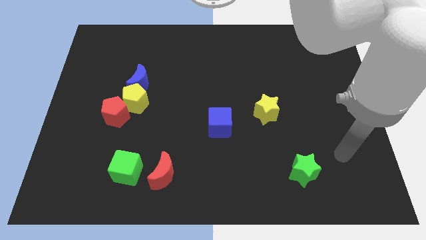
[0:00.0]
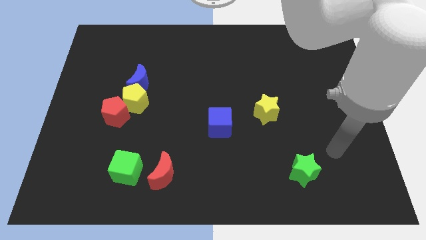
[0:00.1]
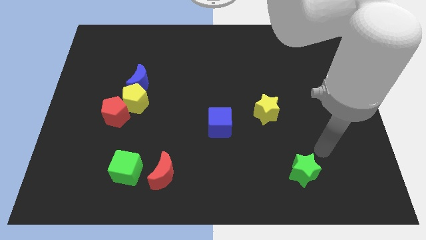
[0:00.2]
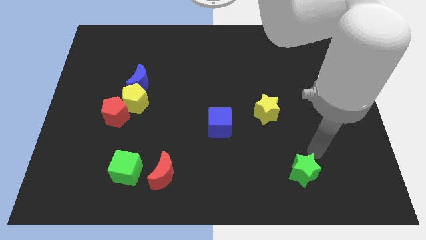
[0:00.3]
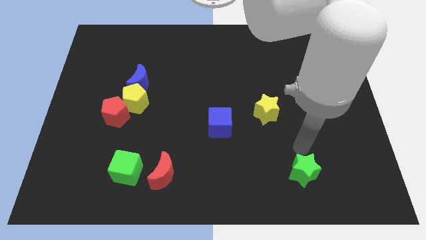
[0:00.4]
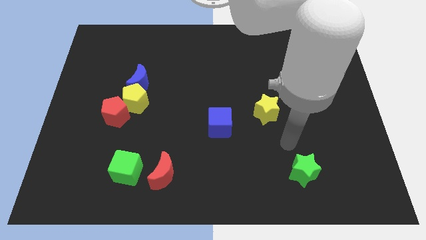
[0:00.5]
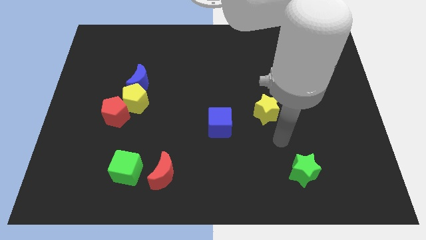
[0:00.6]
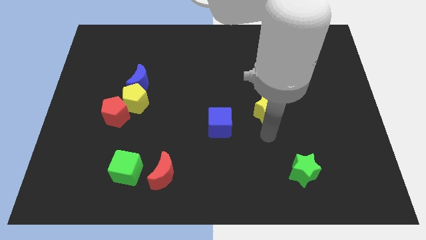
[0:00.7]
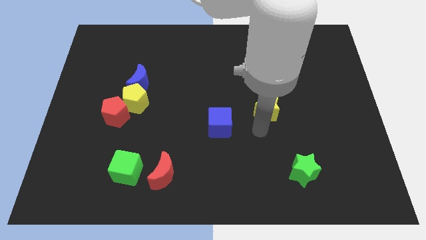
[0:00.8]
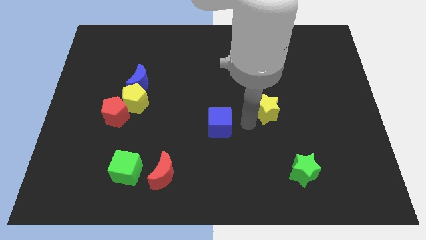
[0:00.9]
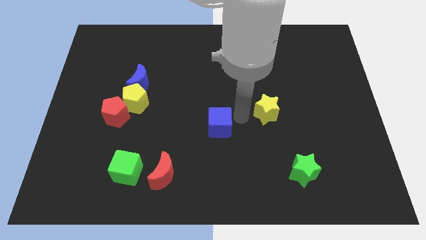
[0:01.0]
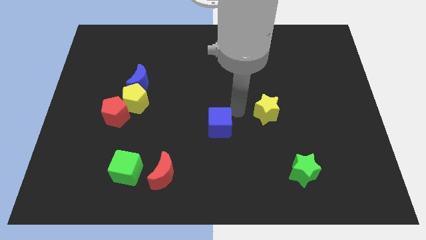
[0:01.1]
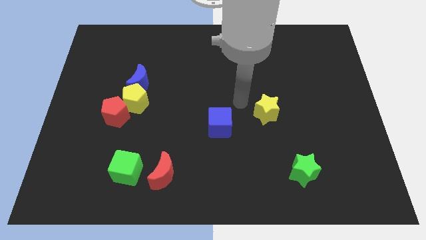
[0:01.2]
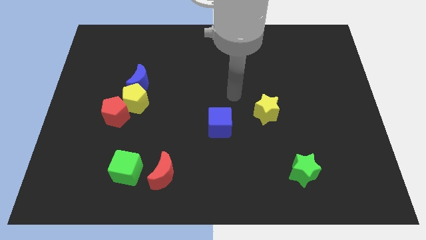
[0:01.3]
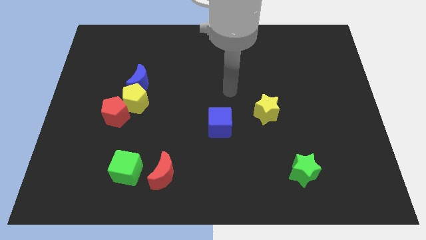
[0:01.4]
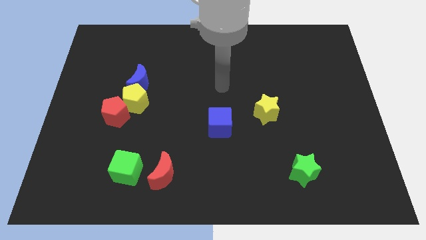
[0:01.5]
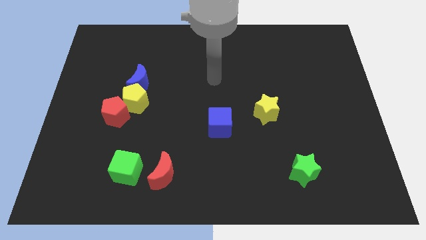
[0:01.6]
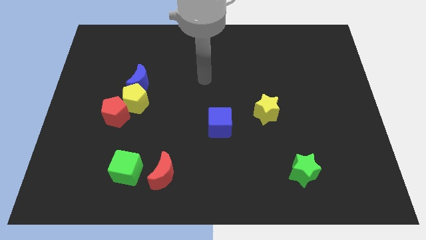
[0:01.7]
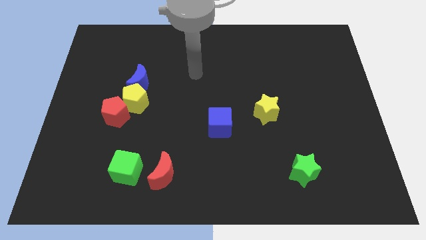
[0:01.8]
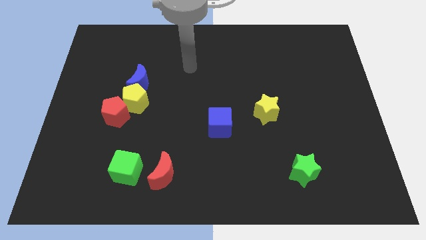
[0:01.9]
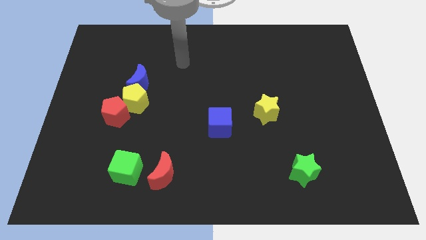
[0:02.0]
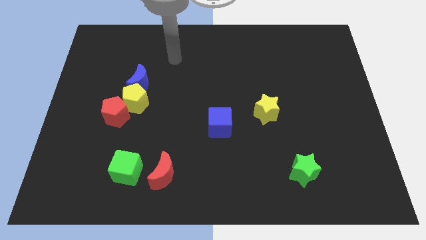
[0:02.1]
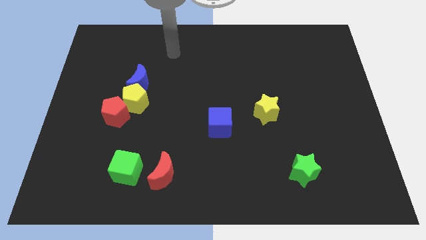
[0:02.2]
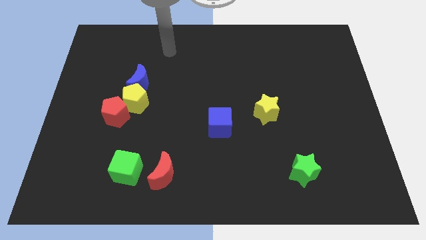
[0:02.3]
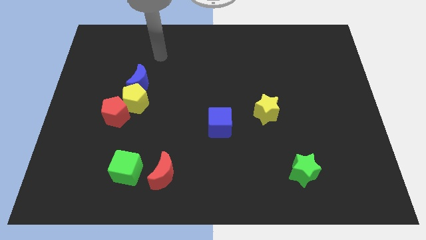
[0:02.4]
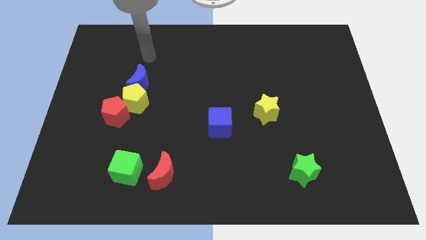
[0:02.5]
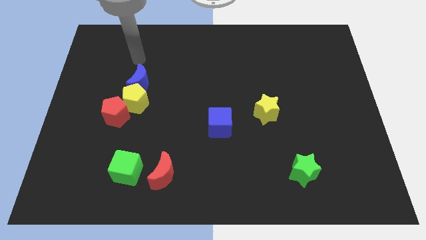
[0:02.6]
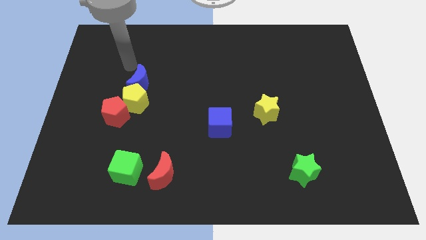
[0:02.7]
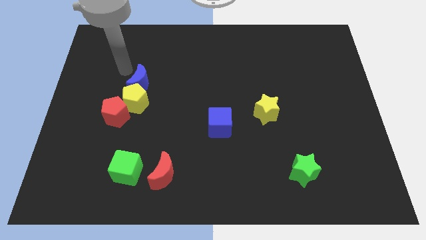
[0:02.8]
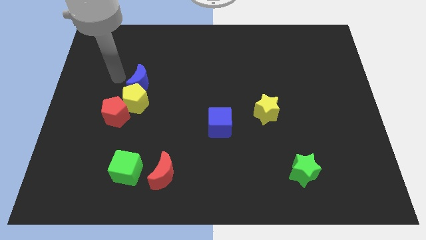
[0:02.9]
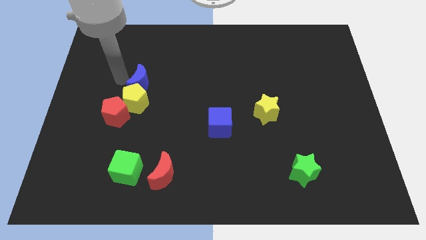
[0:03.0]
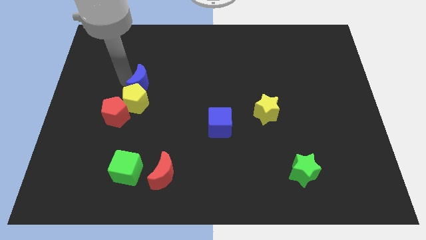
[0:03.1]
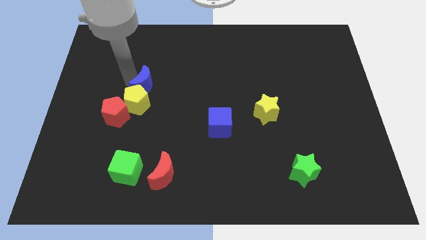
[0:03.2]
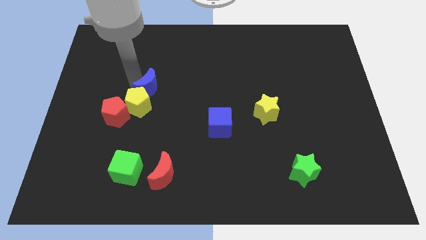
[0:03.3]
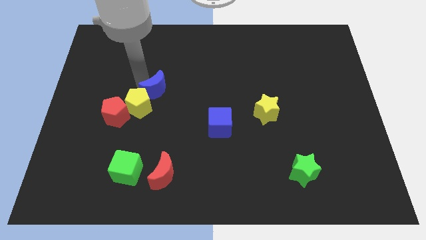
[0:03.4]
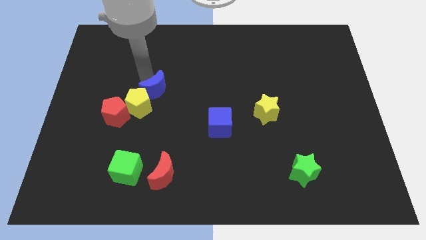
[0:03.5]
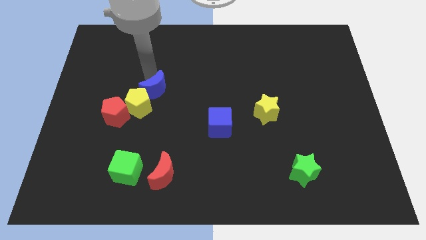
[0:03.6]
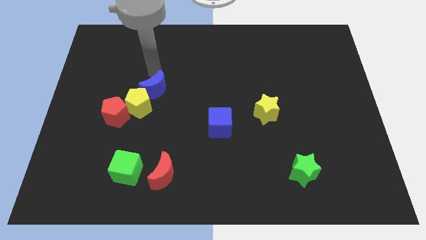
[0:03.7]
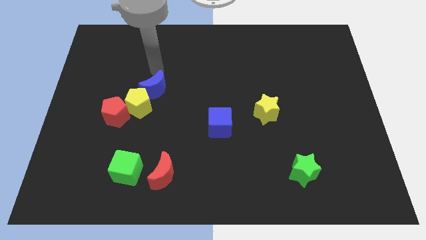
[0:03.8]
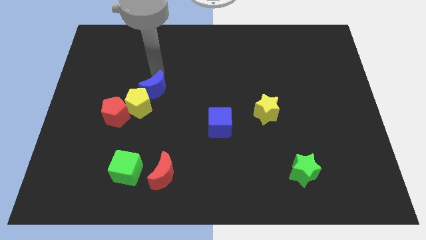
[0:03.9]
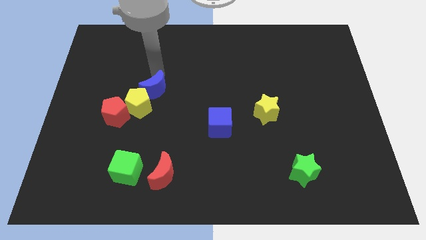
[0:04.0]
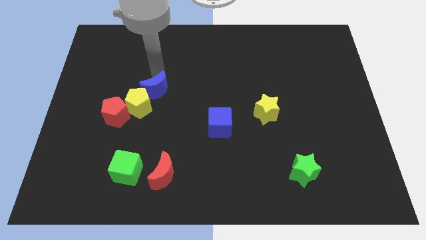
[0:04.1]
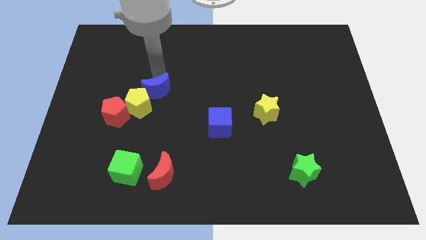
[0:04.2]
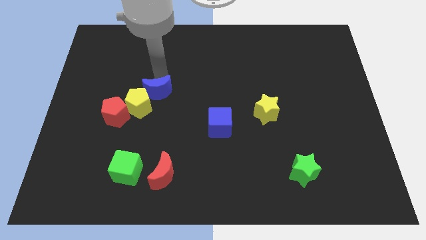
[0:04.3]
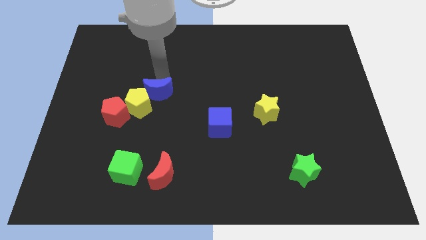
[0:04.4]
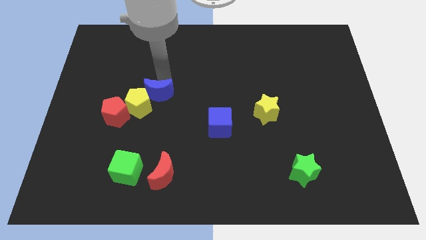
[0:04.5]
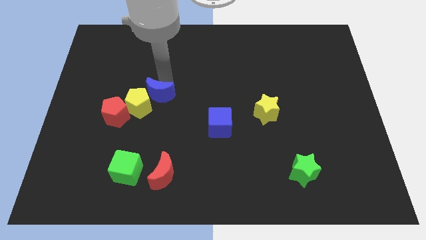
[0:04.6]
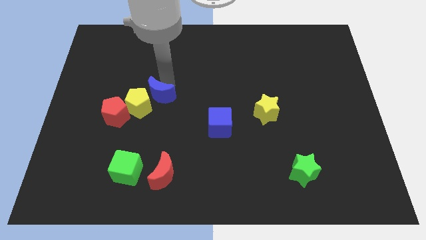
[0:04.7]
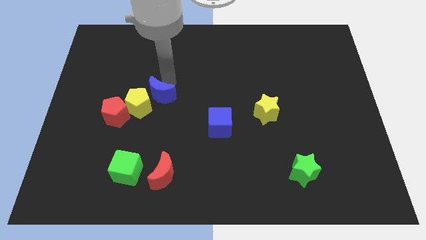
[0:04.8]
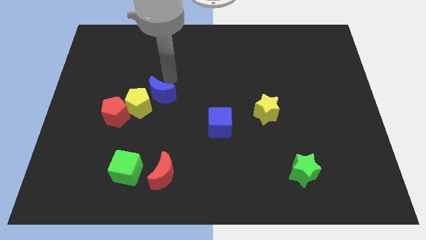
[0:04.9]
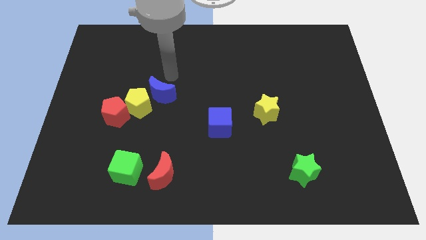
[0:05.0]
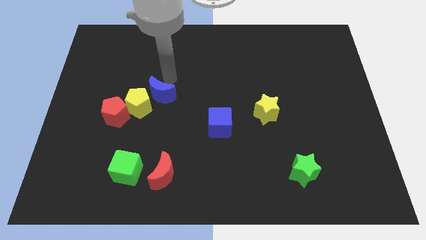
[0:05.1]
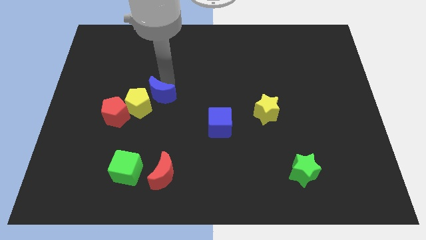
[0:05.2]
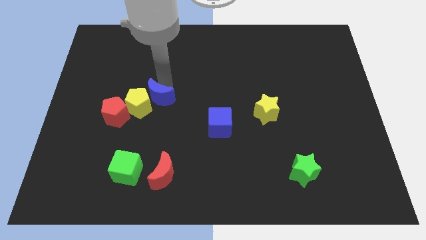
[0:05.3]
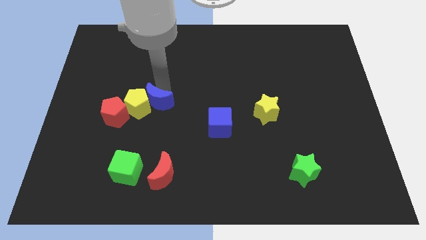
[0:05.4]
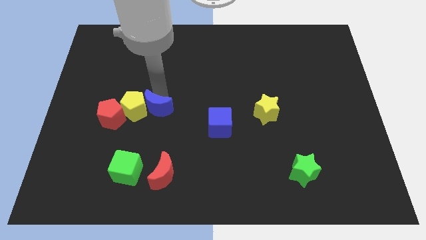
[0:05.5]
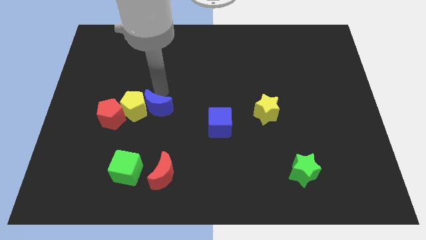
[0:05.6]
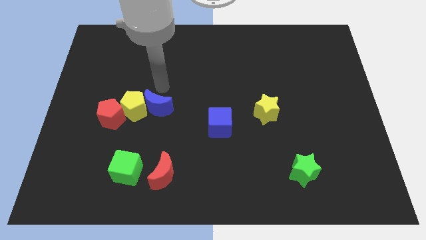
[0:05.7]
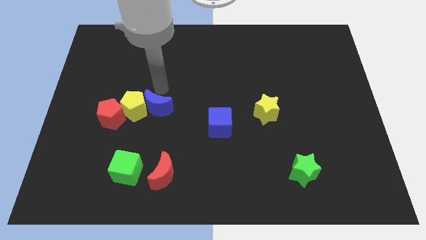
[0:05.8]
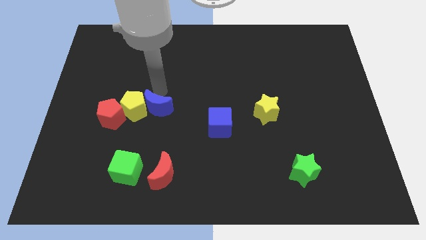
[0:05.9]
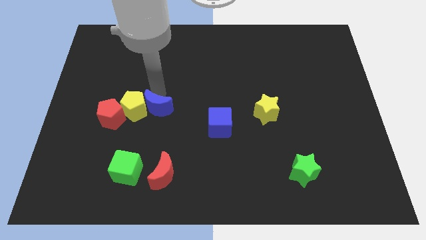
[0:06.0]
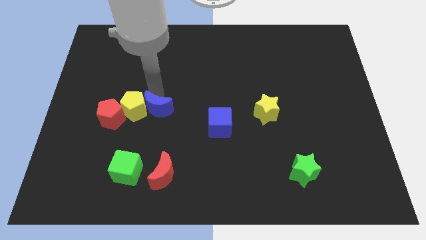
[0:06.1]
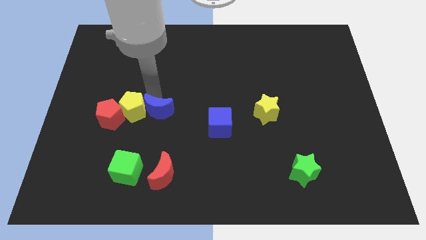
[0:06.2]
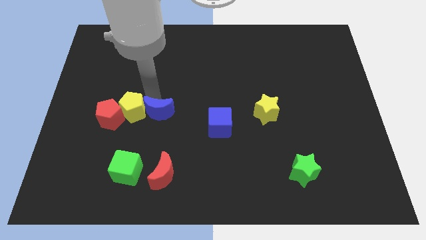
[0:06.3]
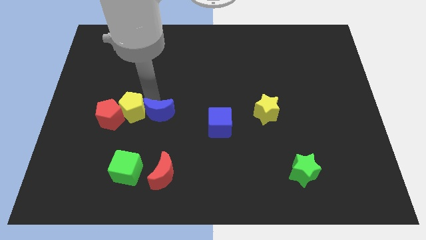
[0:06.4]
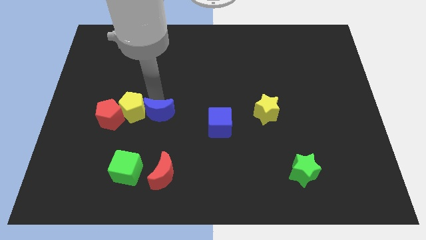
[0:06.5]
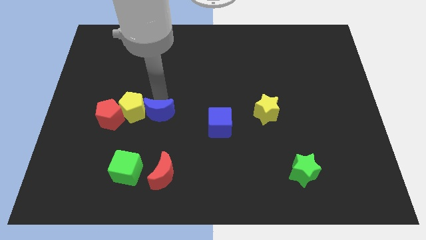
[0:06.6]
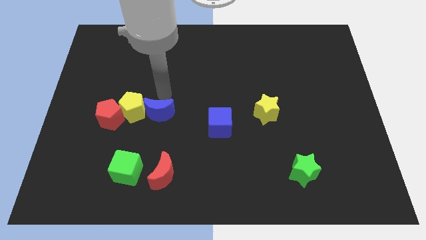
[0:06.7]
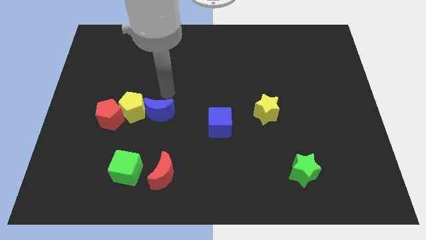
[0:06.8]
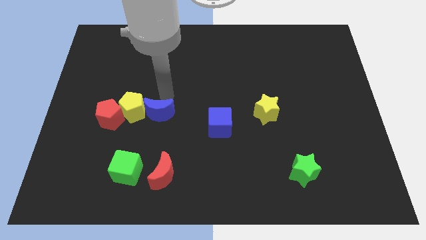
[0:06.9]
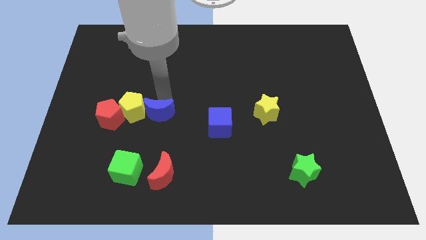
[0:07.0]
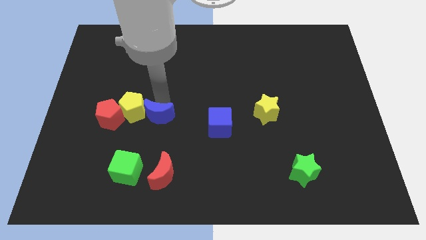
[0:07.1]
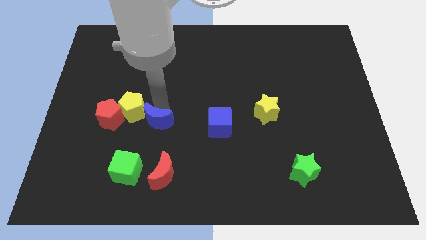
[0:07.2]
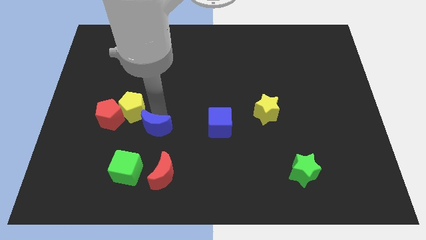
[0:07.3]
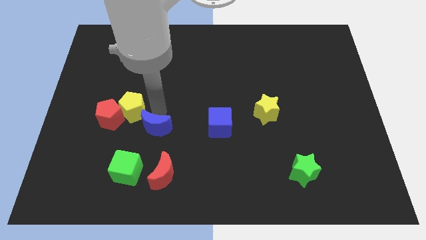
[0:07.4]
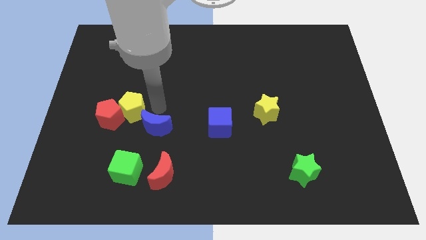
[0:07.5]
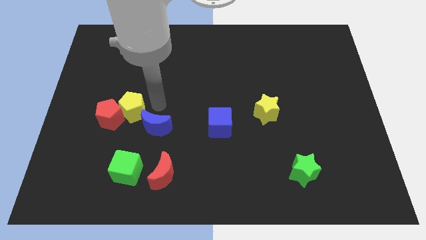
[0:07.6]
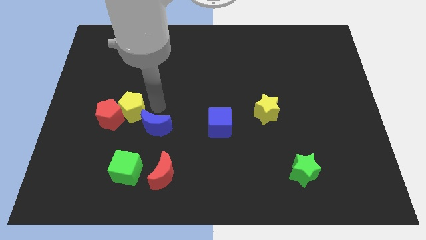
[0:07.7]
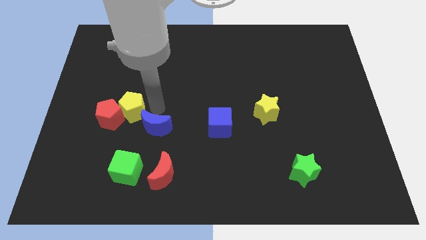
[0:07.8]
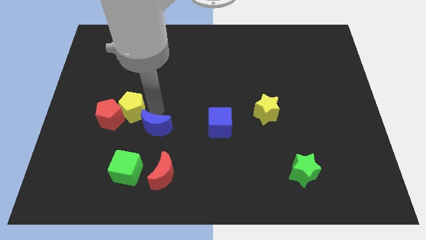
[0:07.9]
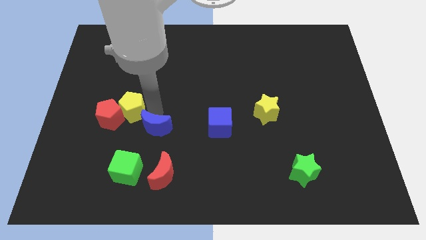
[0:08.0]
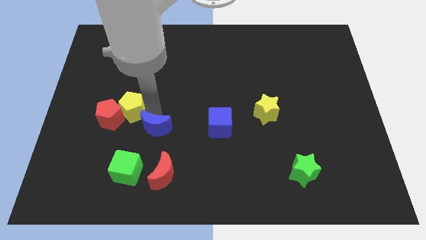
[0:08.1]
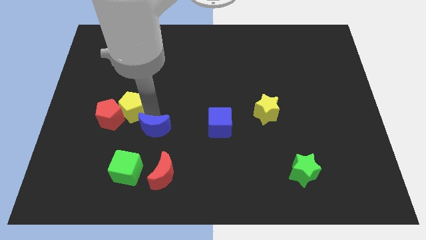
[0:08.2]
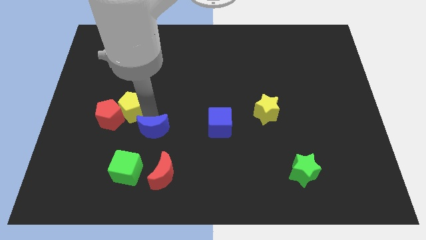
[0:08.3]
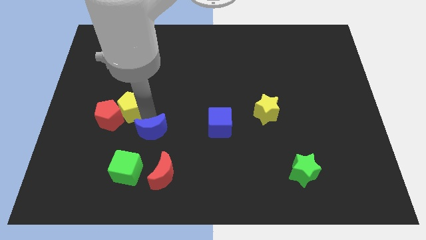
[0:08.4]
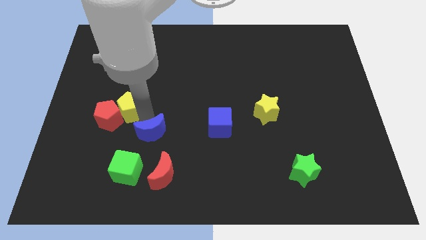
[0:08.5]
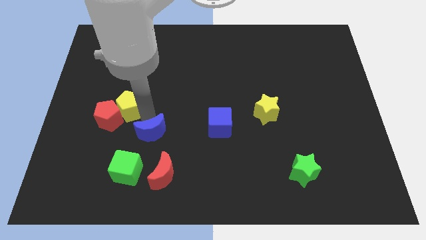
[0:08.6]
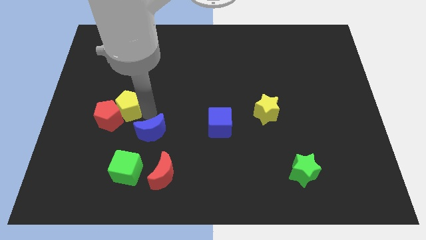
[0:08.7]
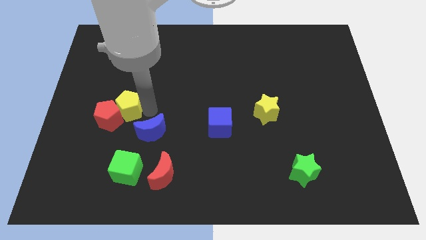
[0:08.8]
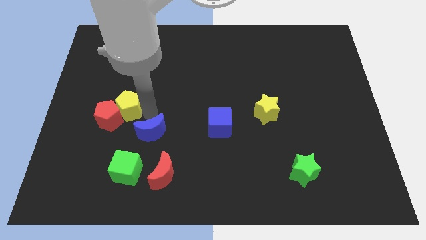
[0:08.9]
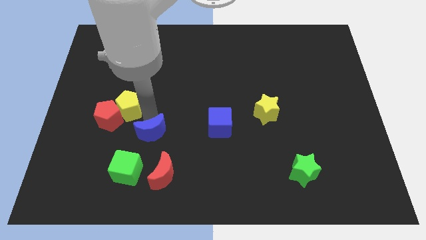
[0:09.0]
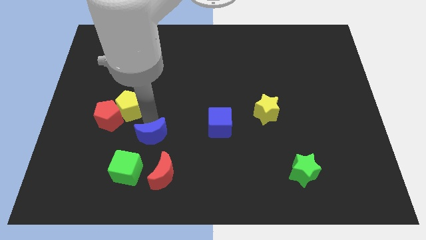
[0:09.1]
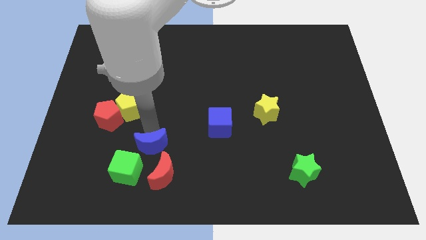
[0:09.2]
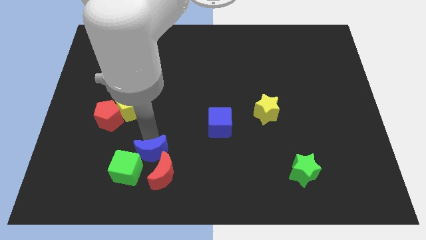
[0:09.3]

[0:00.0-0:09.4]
push the blue moon close to the red moon
